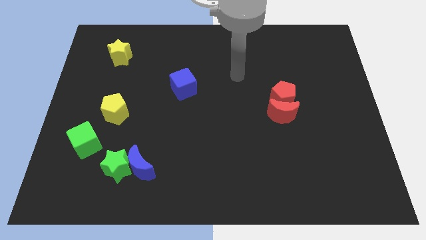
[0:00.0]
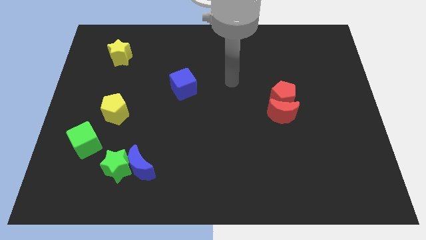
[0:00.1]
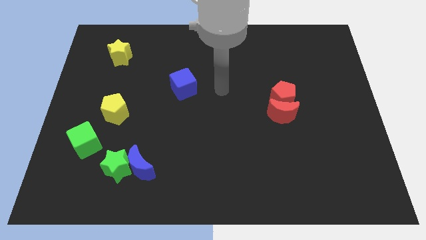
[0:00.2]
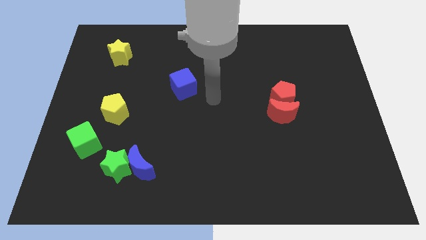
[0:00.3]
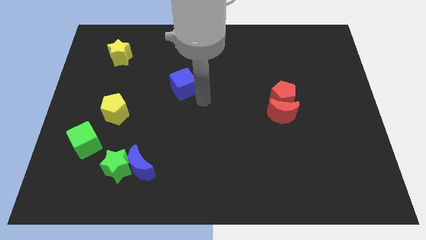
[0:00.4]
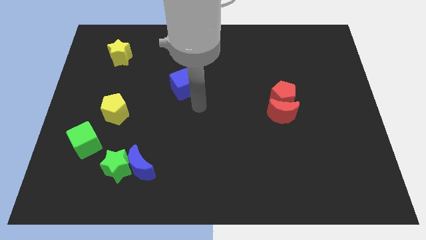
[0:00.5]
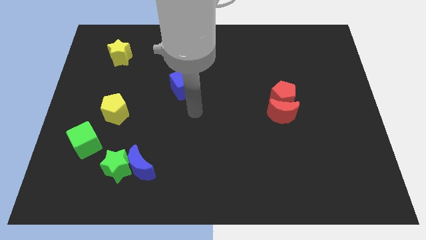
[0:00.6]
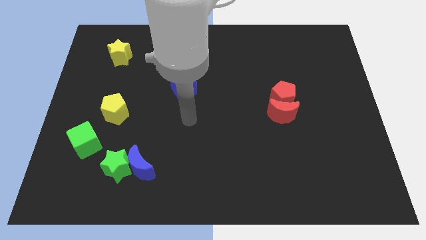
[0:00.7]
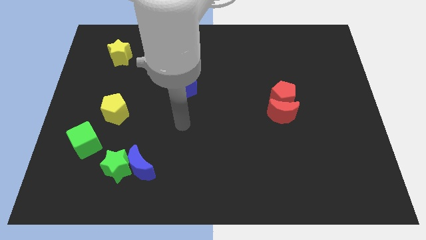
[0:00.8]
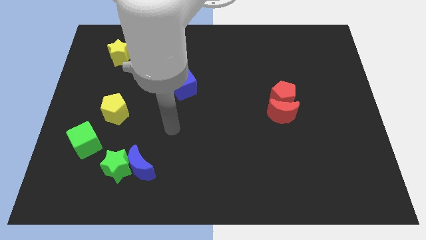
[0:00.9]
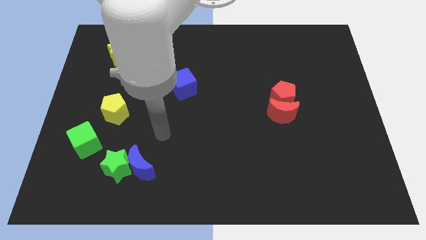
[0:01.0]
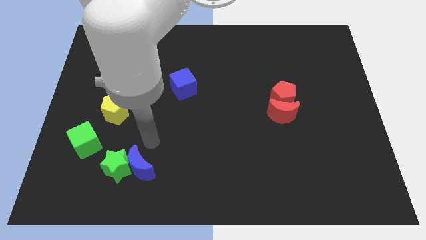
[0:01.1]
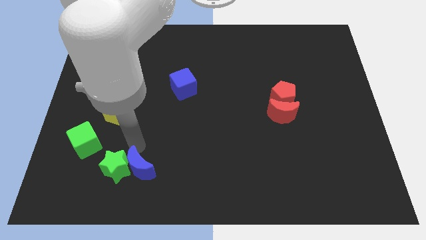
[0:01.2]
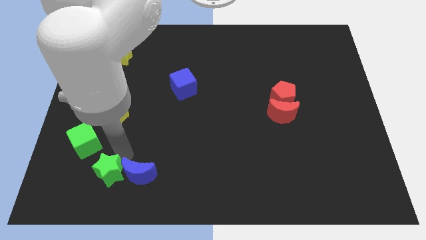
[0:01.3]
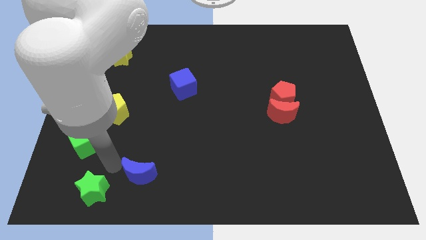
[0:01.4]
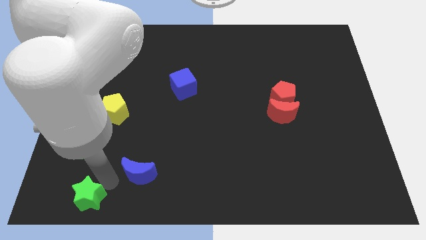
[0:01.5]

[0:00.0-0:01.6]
move the blue moon away from the green star

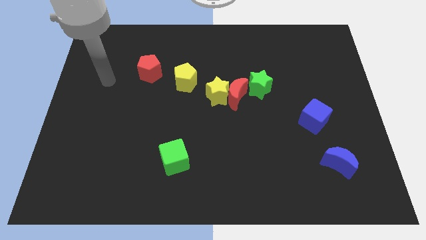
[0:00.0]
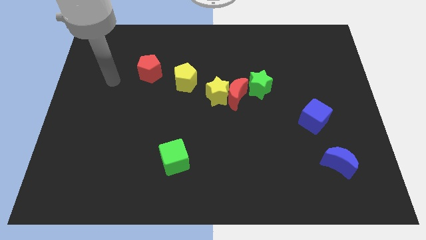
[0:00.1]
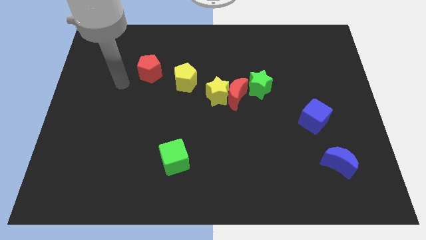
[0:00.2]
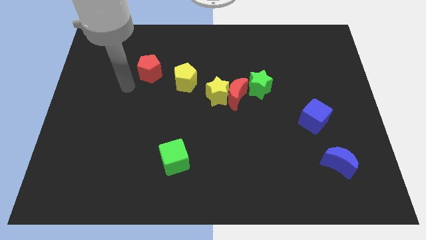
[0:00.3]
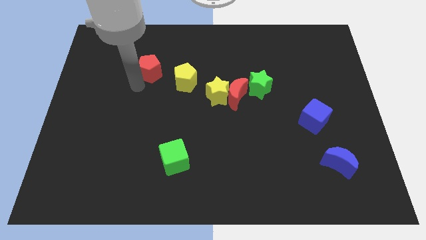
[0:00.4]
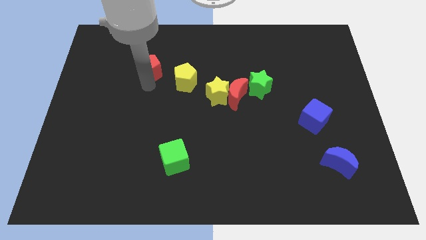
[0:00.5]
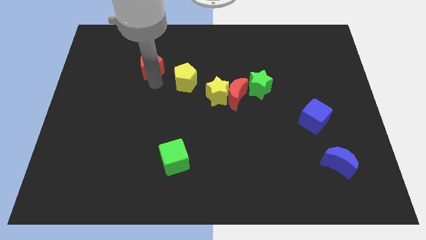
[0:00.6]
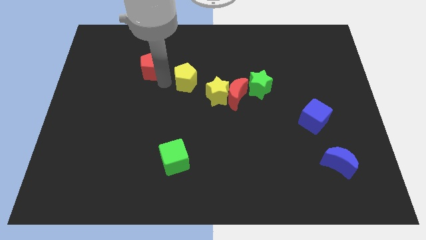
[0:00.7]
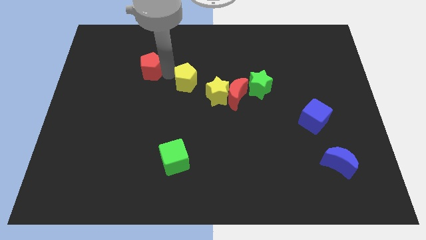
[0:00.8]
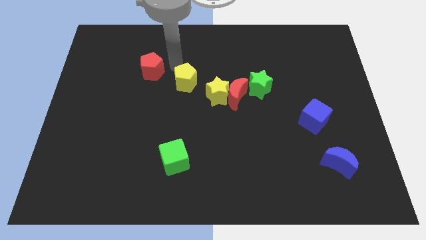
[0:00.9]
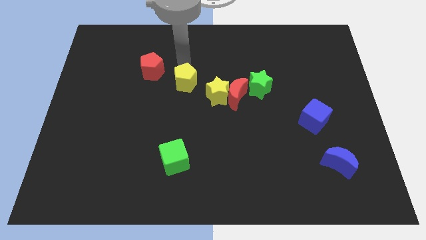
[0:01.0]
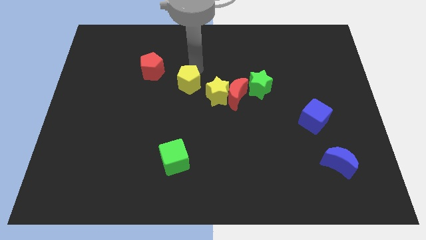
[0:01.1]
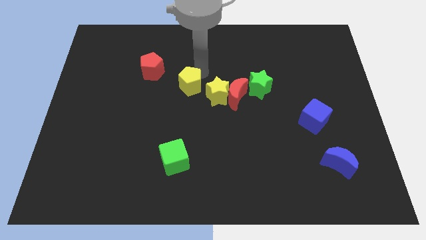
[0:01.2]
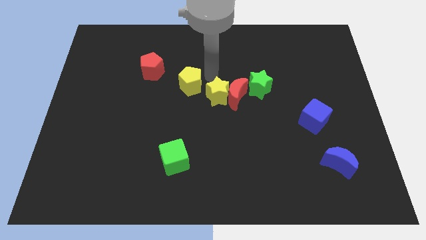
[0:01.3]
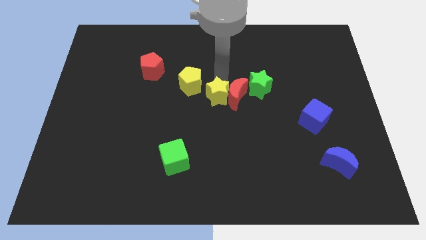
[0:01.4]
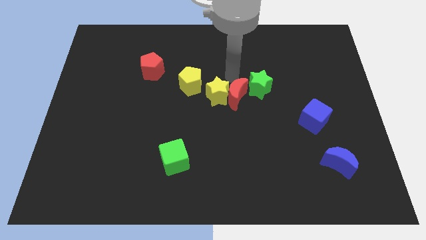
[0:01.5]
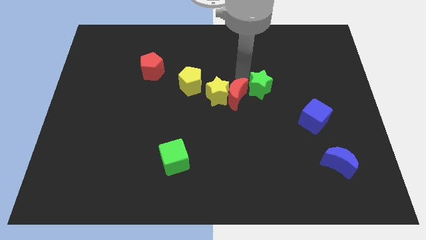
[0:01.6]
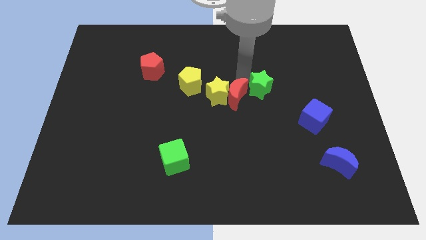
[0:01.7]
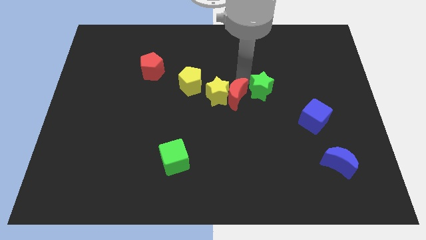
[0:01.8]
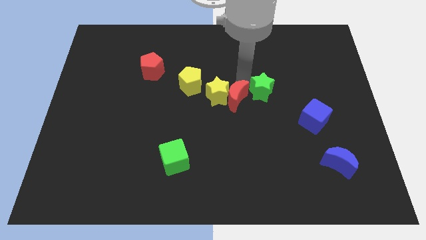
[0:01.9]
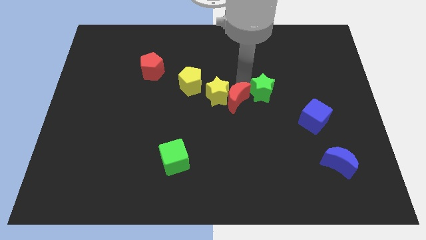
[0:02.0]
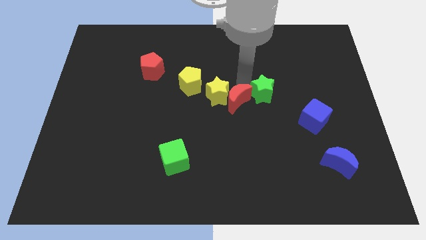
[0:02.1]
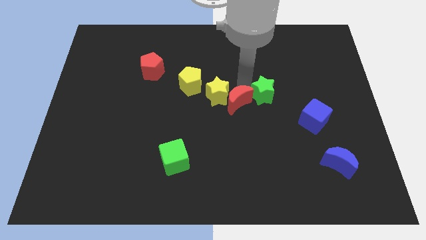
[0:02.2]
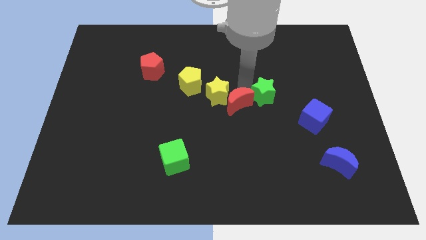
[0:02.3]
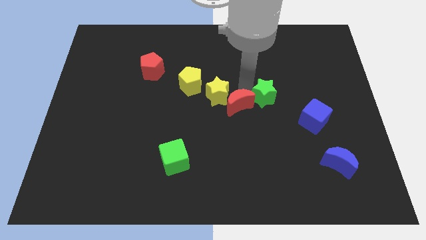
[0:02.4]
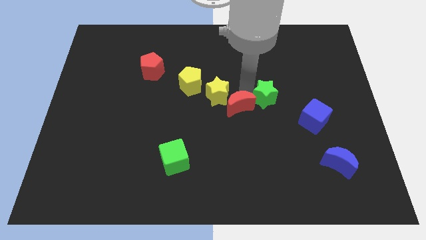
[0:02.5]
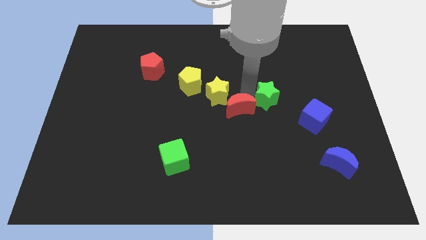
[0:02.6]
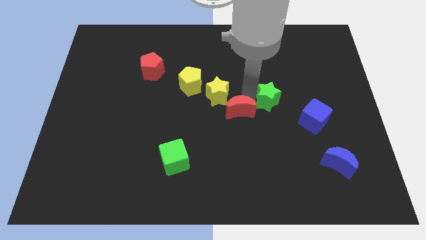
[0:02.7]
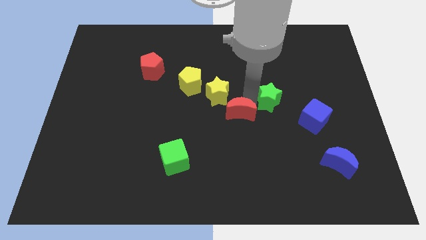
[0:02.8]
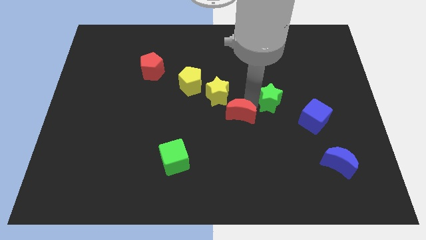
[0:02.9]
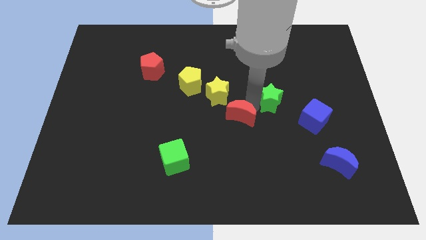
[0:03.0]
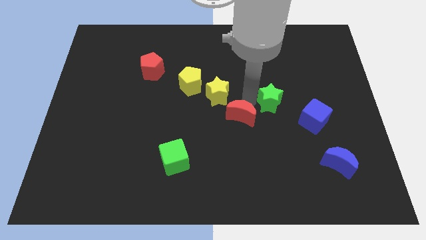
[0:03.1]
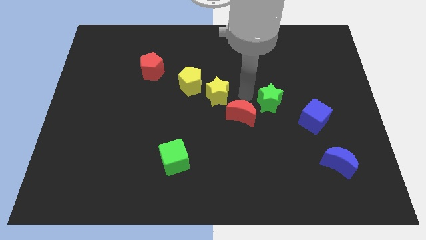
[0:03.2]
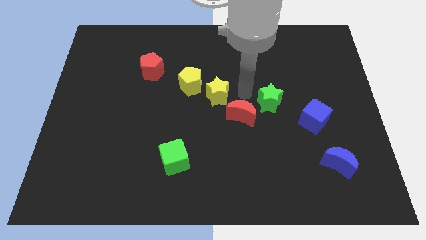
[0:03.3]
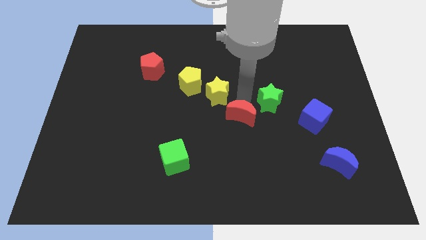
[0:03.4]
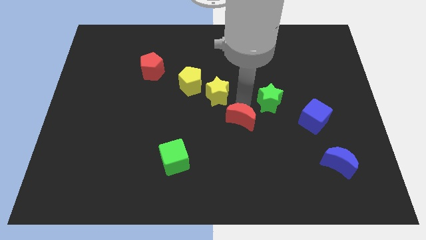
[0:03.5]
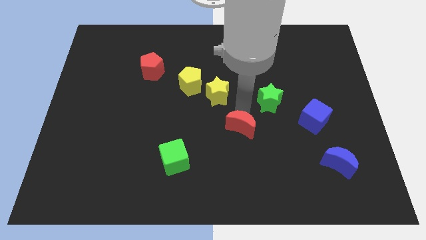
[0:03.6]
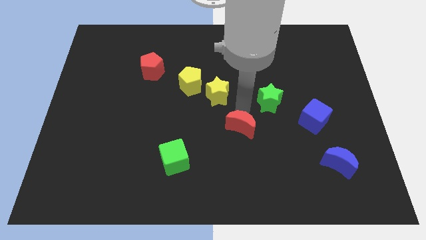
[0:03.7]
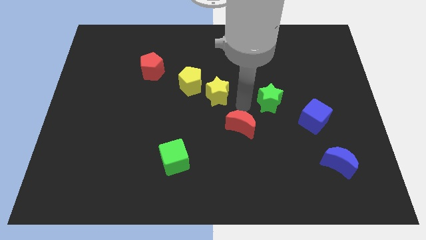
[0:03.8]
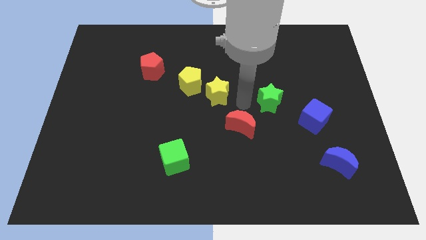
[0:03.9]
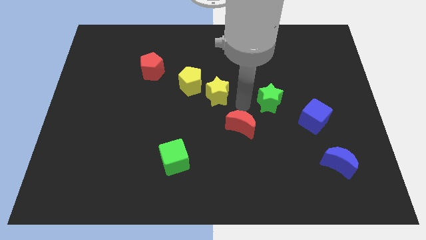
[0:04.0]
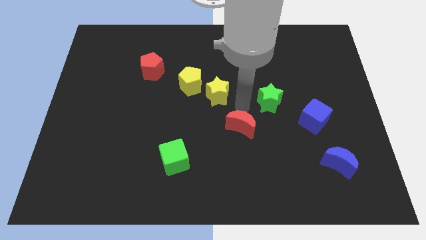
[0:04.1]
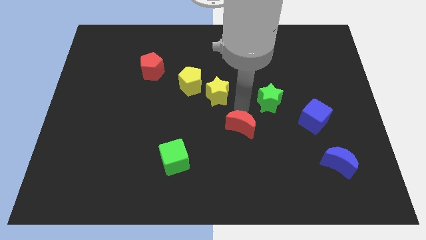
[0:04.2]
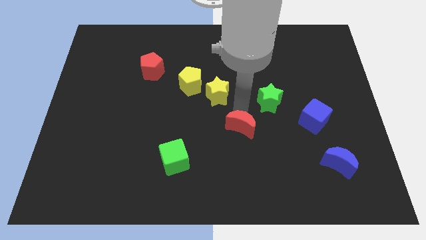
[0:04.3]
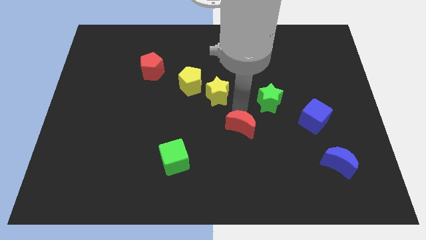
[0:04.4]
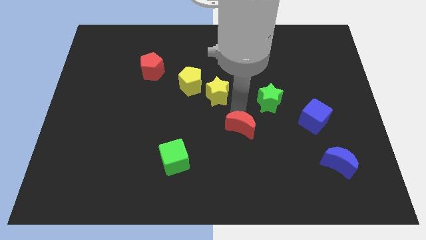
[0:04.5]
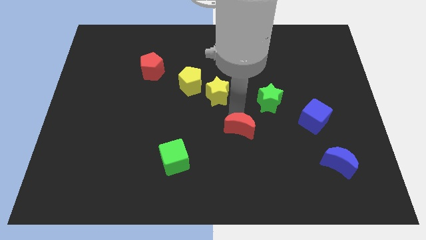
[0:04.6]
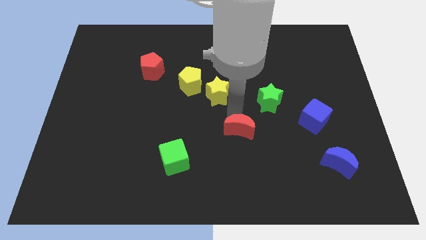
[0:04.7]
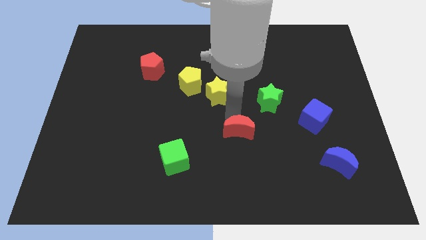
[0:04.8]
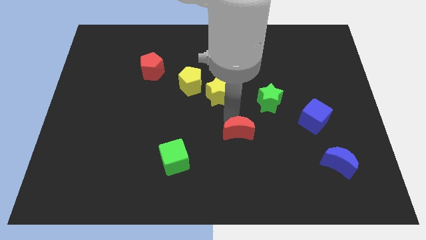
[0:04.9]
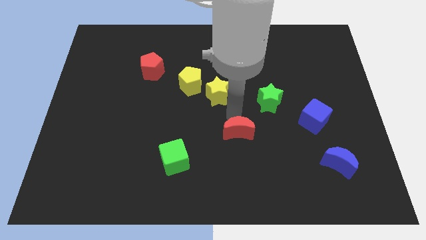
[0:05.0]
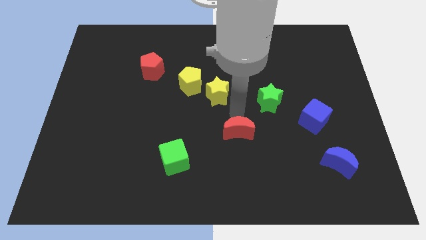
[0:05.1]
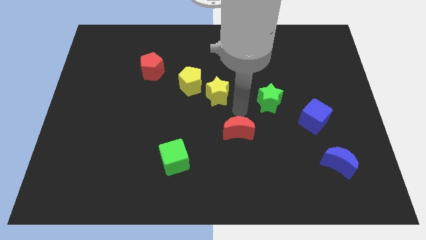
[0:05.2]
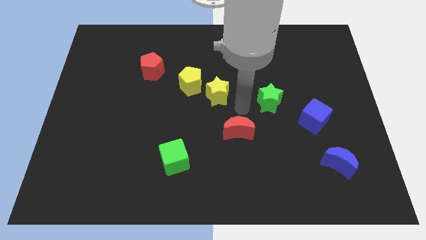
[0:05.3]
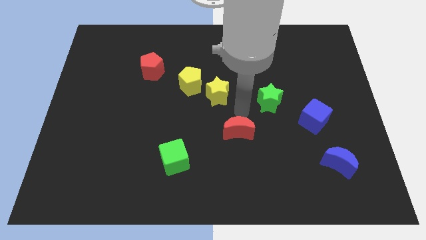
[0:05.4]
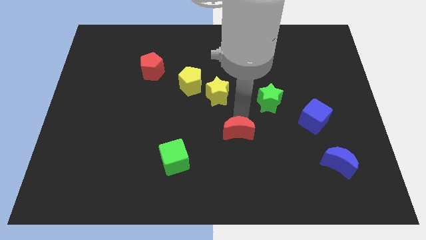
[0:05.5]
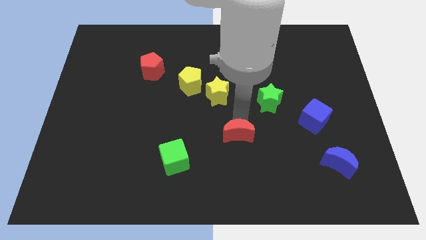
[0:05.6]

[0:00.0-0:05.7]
separate the red moon from the yellow star and green star

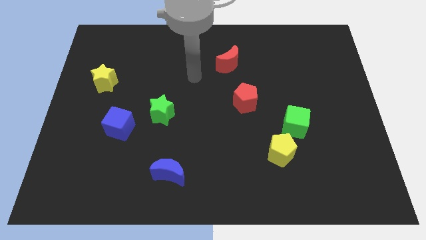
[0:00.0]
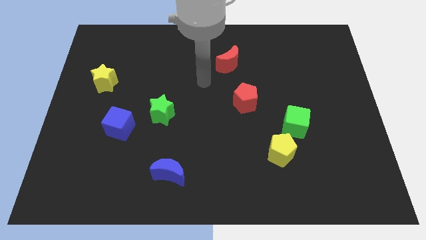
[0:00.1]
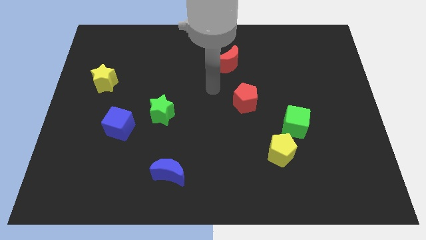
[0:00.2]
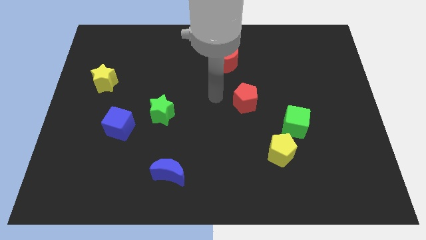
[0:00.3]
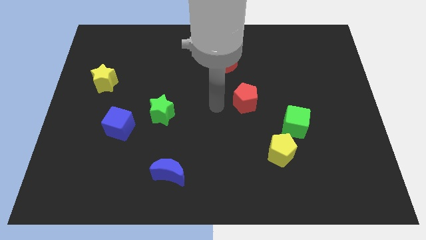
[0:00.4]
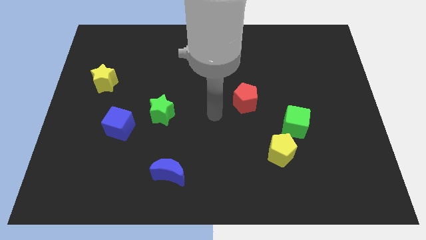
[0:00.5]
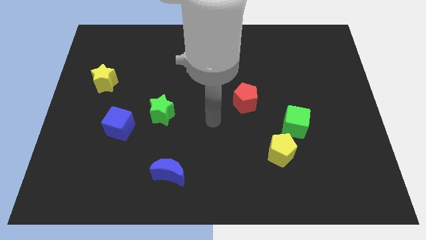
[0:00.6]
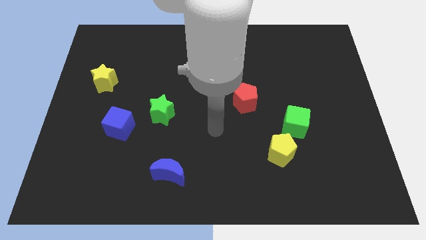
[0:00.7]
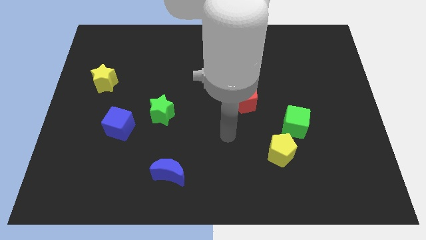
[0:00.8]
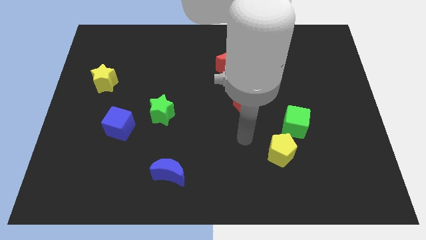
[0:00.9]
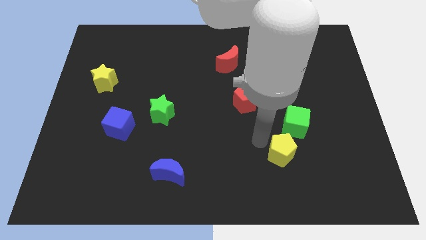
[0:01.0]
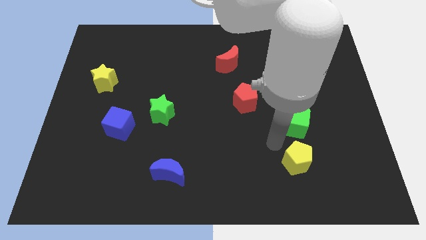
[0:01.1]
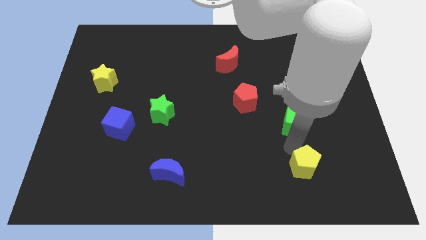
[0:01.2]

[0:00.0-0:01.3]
pull the green cube apart from the yellow pentagon

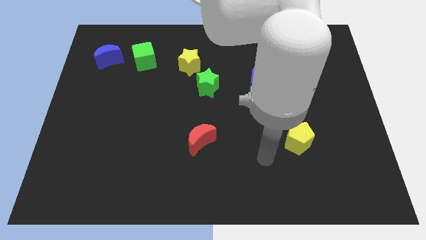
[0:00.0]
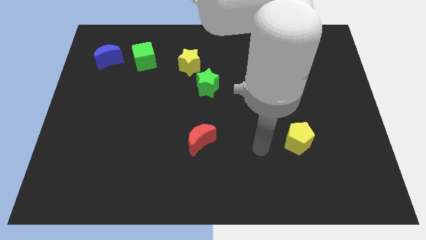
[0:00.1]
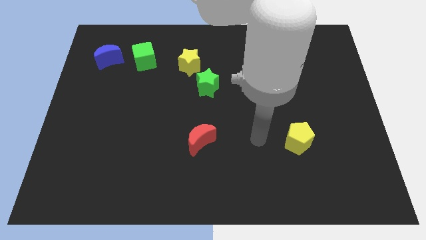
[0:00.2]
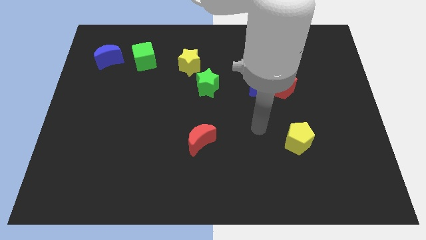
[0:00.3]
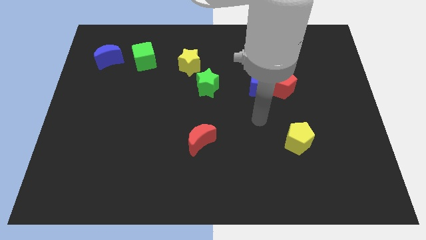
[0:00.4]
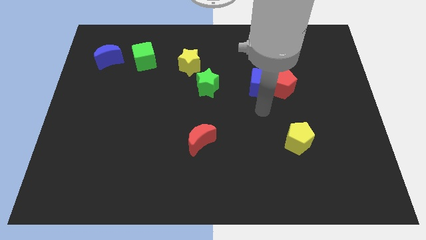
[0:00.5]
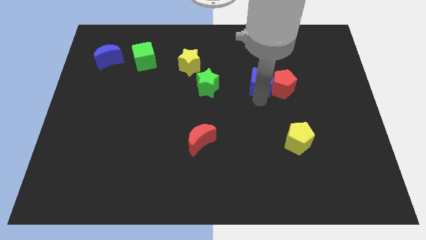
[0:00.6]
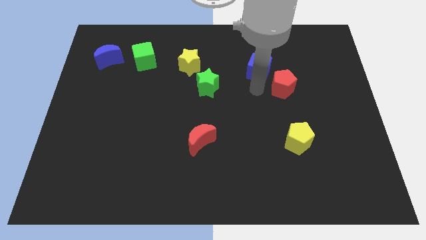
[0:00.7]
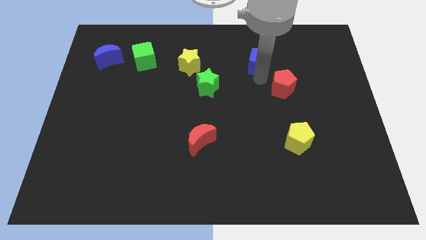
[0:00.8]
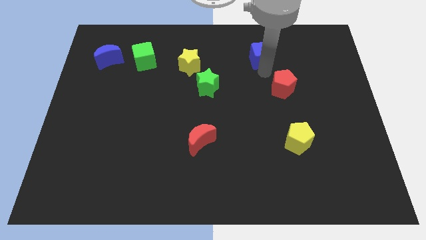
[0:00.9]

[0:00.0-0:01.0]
move the red pentagon away from the blue cube
